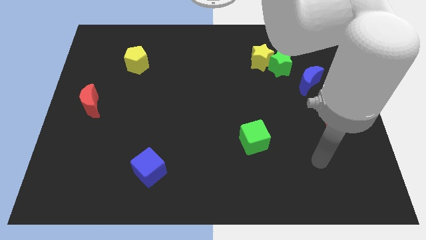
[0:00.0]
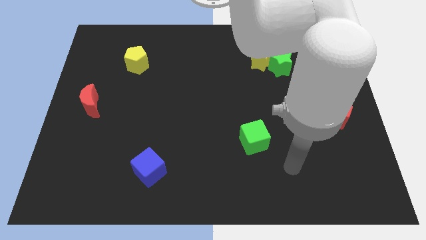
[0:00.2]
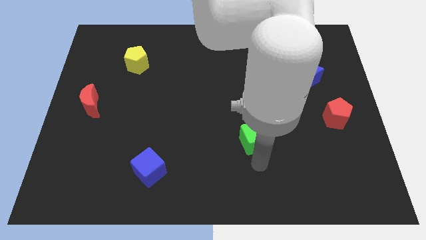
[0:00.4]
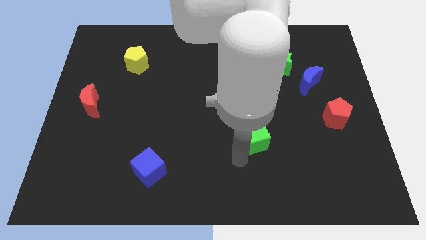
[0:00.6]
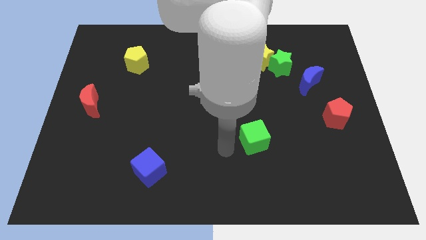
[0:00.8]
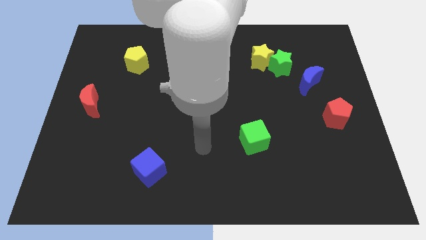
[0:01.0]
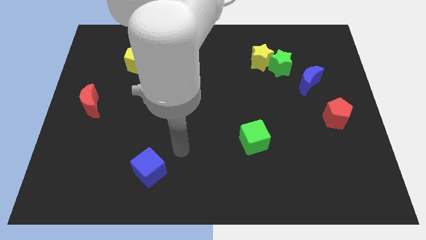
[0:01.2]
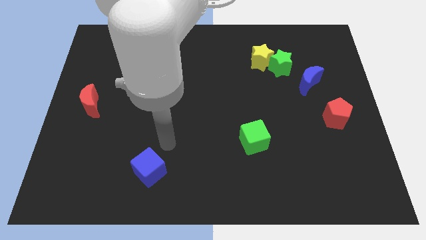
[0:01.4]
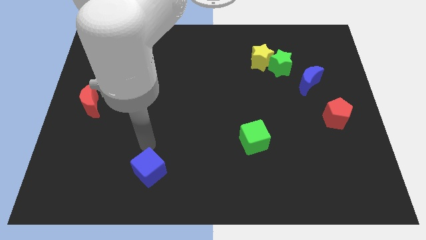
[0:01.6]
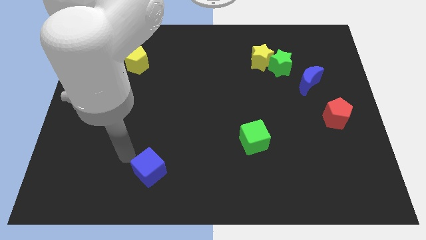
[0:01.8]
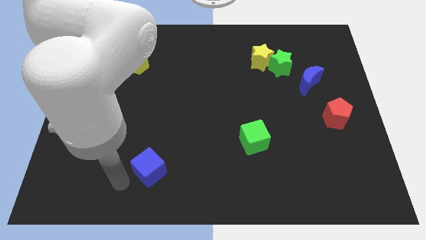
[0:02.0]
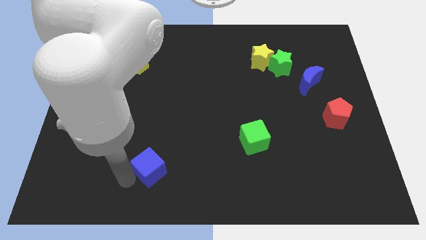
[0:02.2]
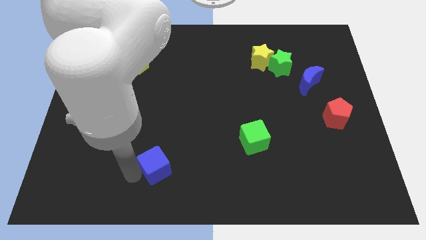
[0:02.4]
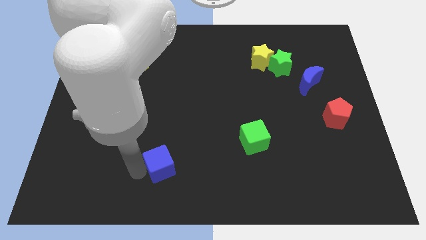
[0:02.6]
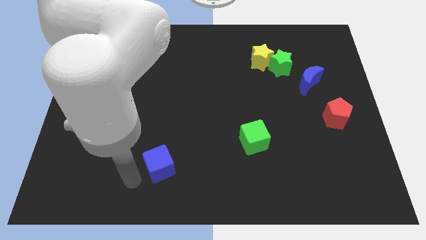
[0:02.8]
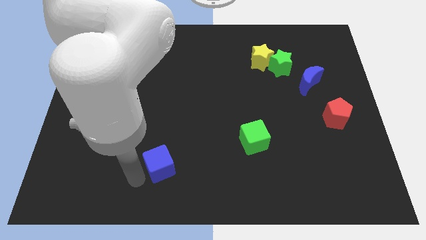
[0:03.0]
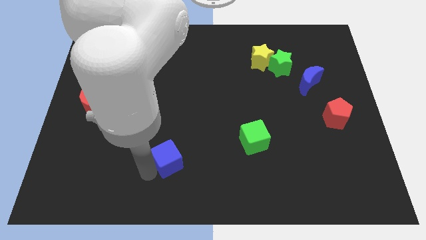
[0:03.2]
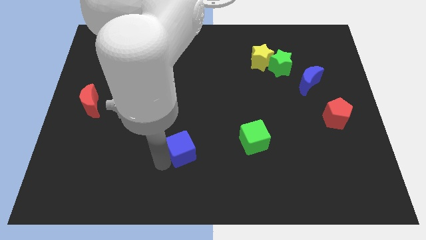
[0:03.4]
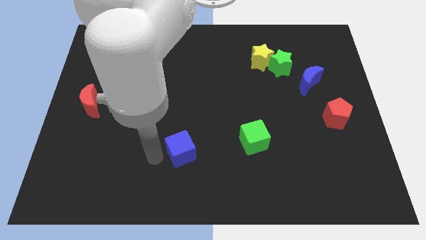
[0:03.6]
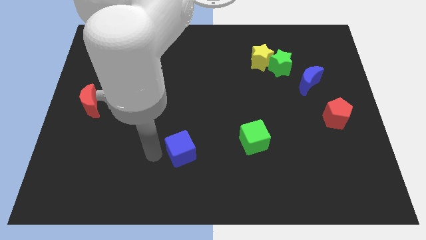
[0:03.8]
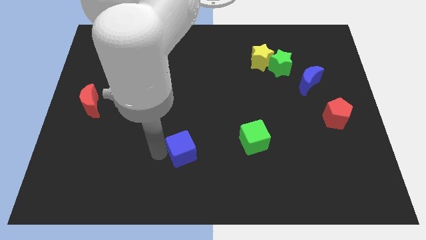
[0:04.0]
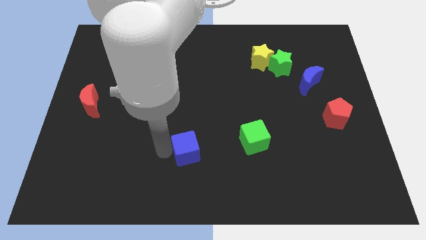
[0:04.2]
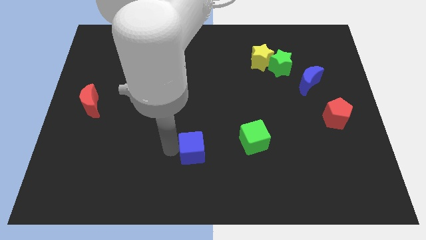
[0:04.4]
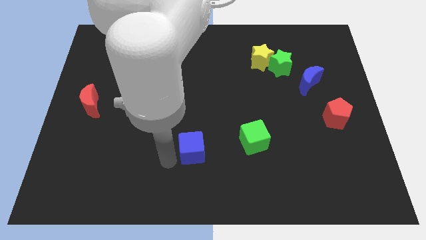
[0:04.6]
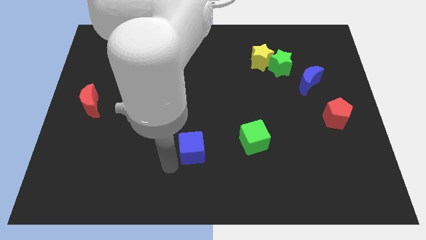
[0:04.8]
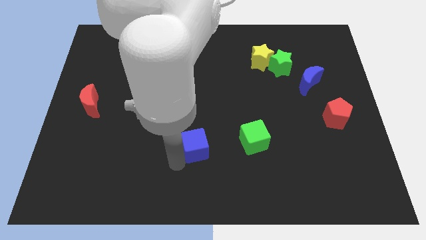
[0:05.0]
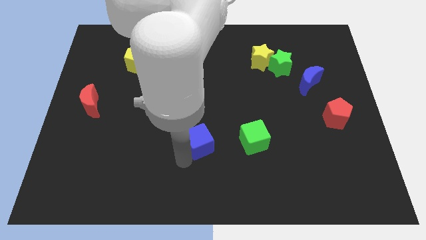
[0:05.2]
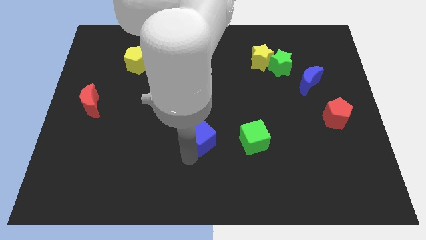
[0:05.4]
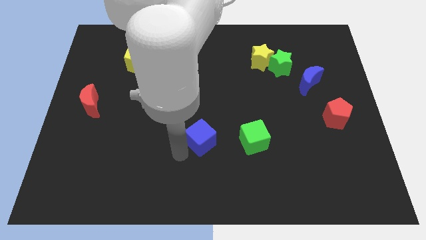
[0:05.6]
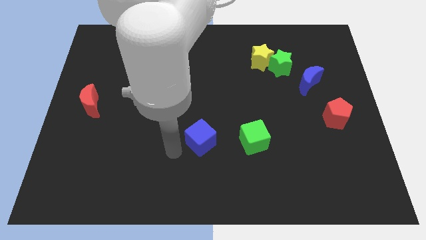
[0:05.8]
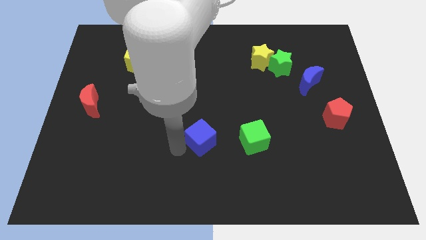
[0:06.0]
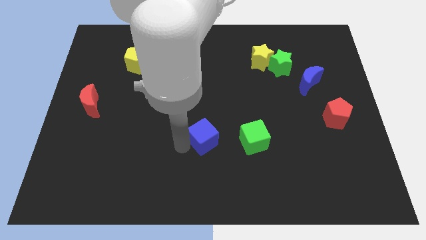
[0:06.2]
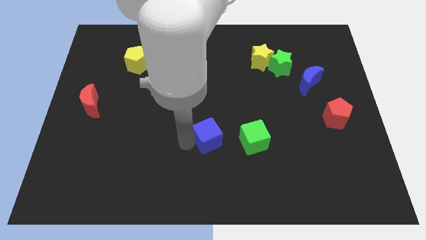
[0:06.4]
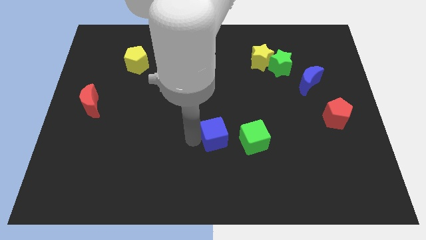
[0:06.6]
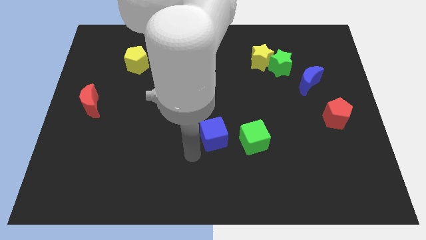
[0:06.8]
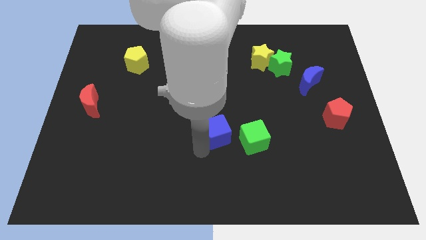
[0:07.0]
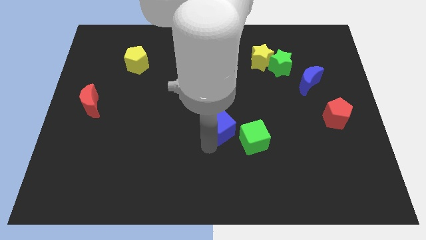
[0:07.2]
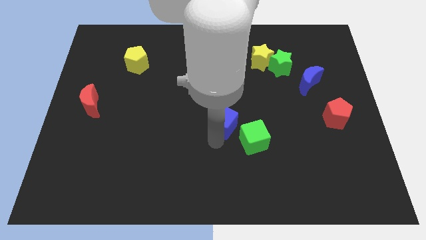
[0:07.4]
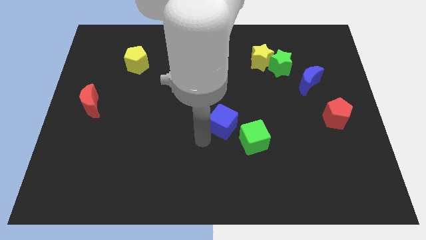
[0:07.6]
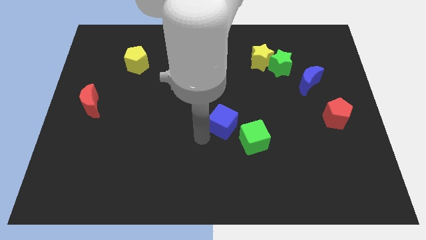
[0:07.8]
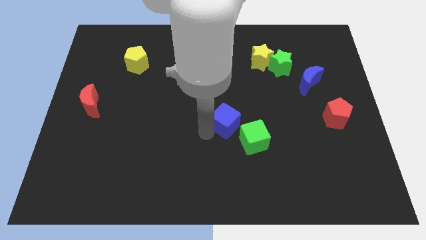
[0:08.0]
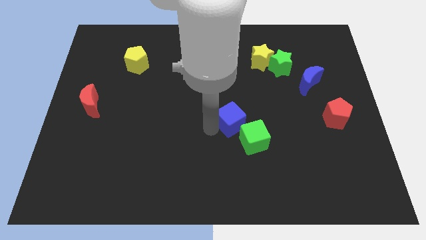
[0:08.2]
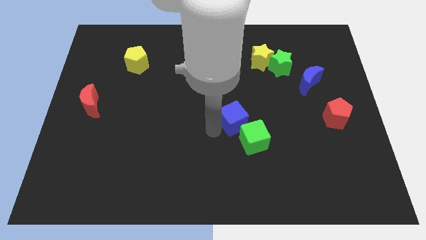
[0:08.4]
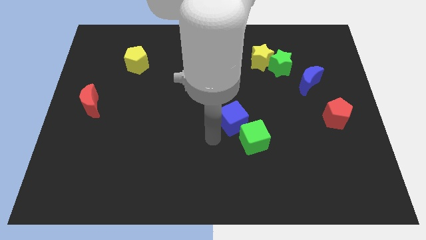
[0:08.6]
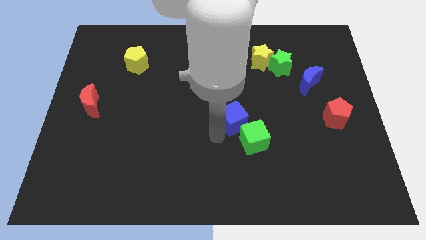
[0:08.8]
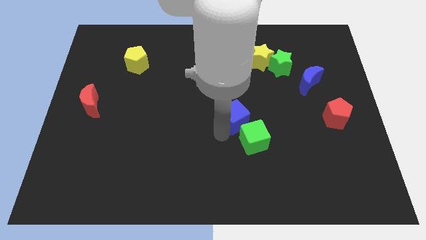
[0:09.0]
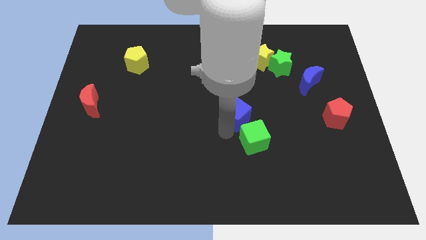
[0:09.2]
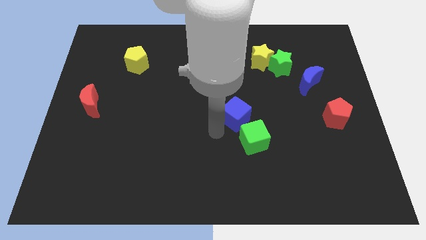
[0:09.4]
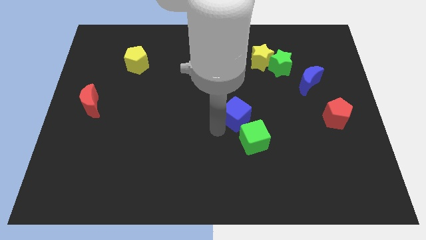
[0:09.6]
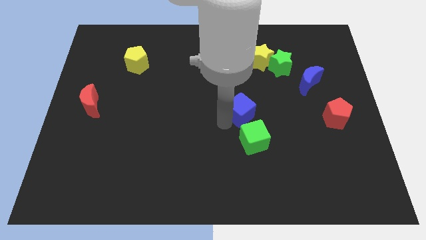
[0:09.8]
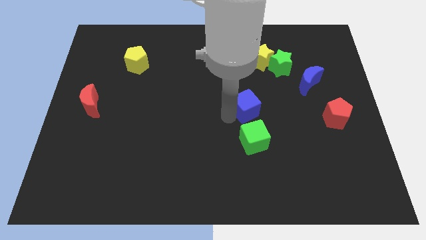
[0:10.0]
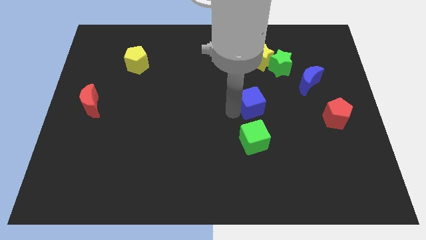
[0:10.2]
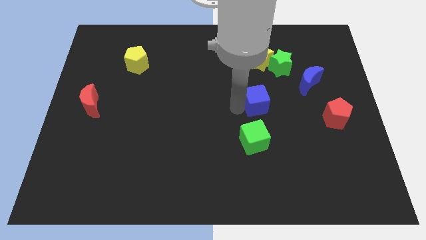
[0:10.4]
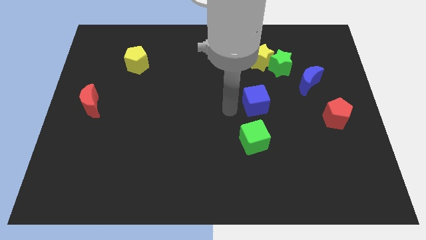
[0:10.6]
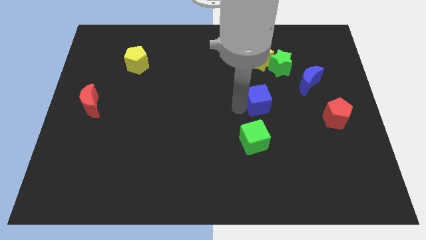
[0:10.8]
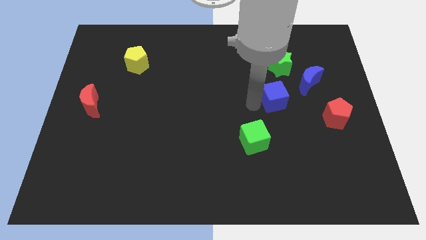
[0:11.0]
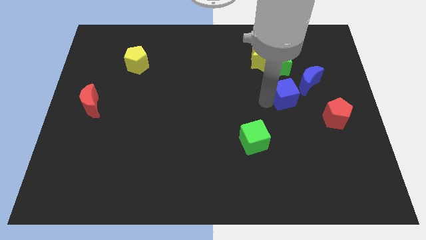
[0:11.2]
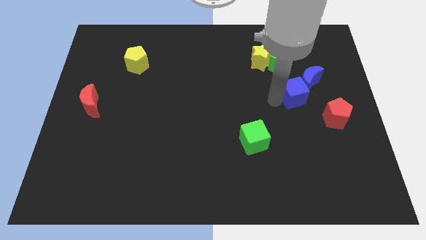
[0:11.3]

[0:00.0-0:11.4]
put the blue cube to the blue moon

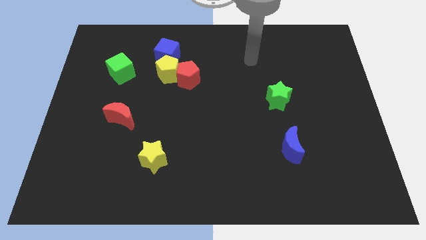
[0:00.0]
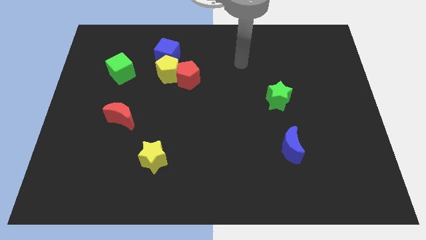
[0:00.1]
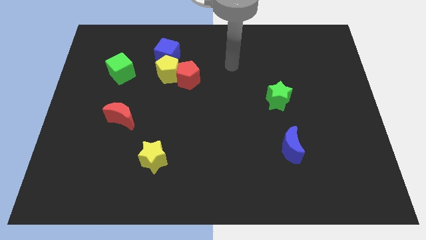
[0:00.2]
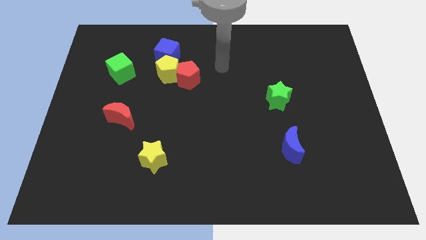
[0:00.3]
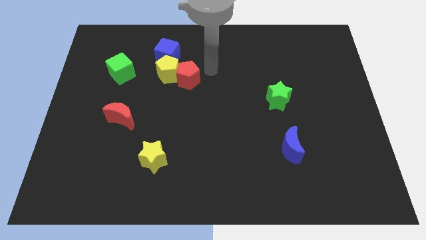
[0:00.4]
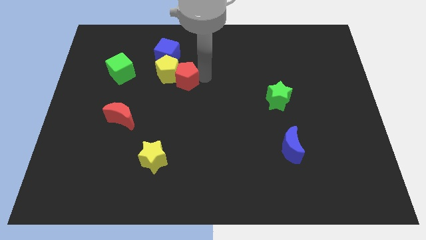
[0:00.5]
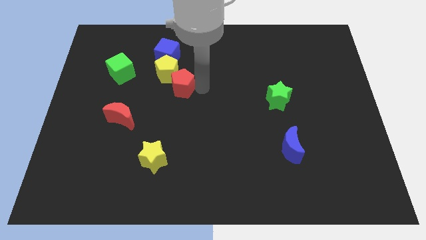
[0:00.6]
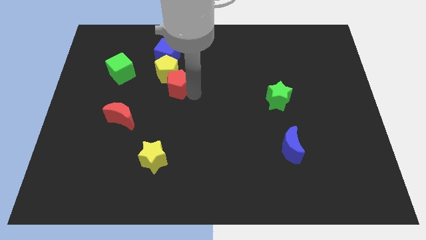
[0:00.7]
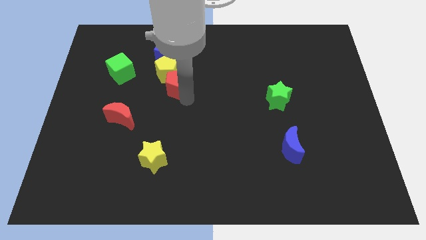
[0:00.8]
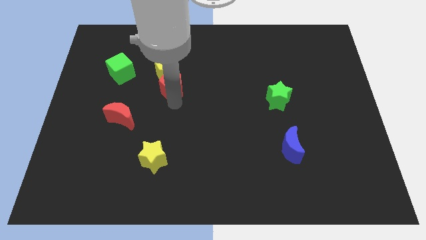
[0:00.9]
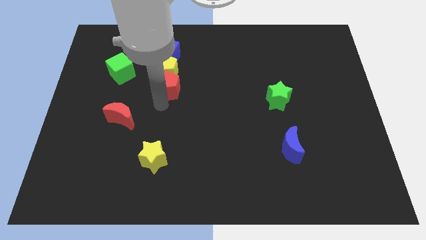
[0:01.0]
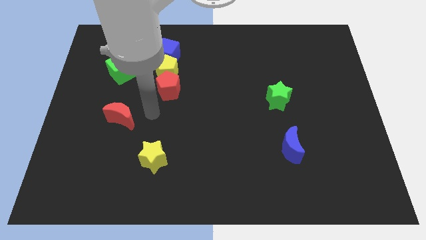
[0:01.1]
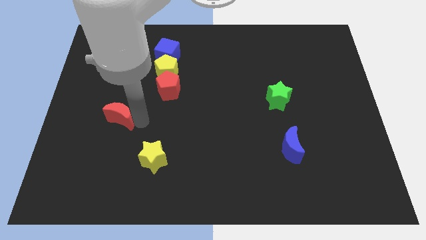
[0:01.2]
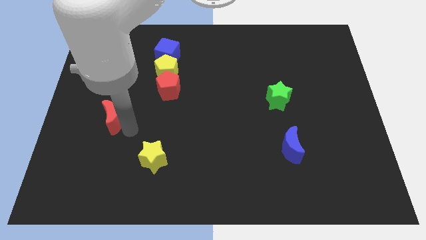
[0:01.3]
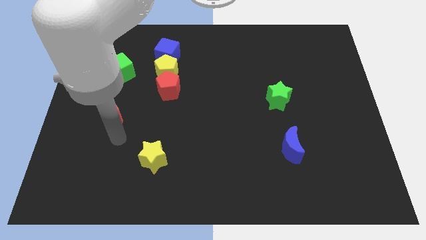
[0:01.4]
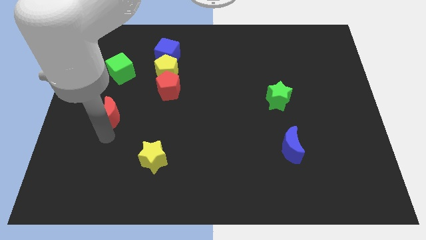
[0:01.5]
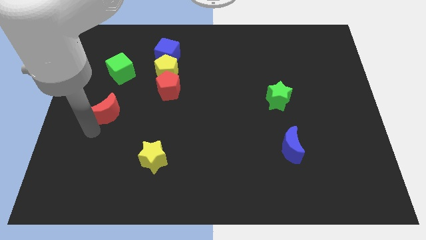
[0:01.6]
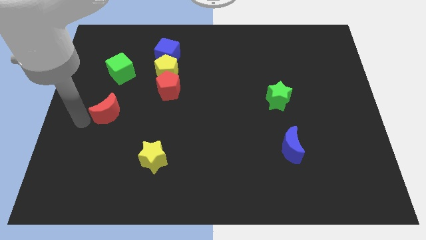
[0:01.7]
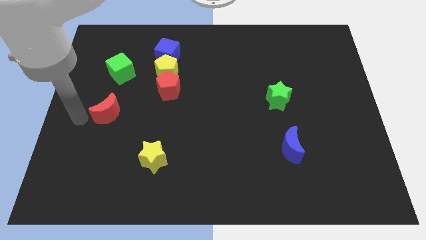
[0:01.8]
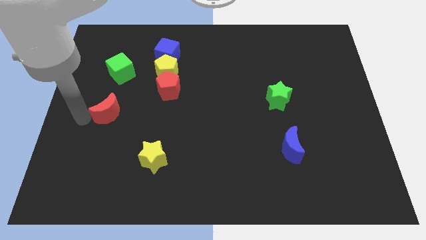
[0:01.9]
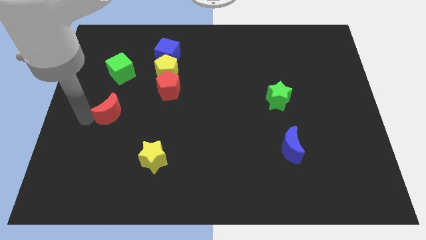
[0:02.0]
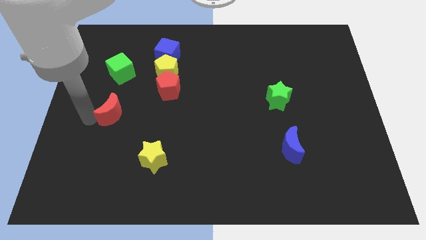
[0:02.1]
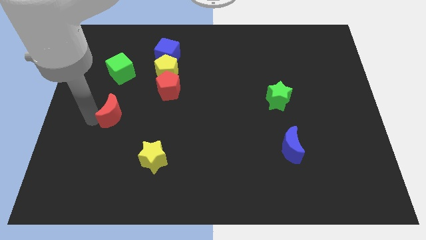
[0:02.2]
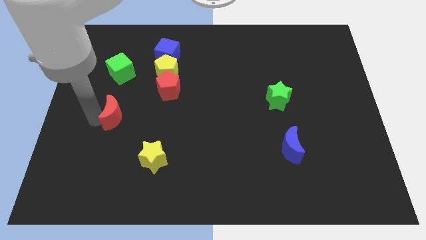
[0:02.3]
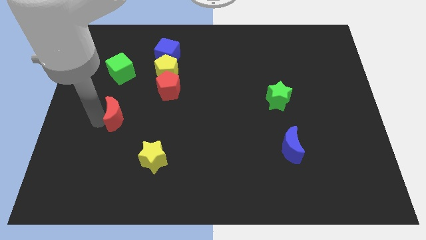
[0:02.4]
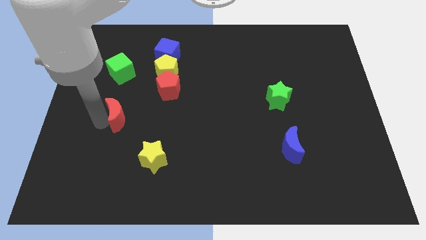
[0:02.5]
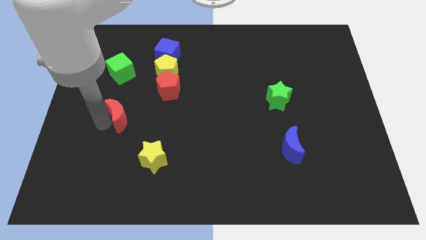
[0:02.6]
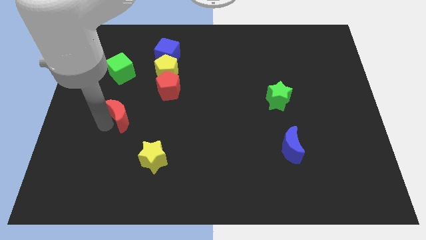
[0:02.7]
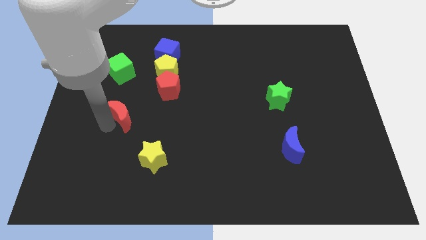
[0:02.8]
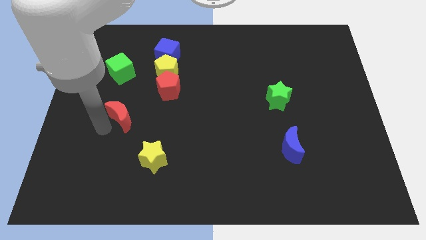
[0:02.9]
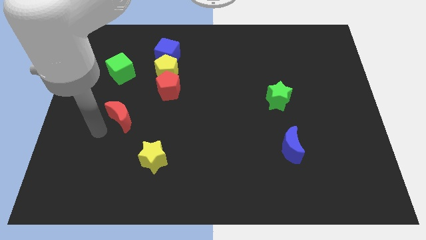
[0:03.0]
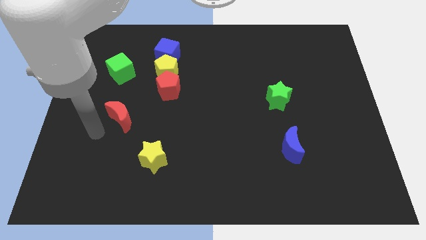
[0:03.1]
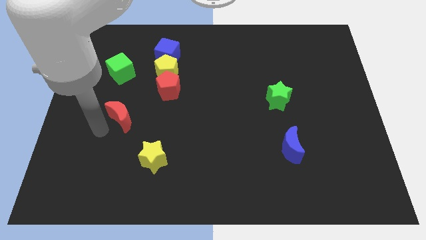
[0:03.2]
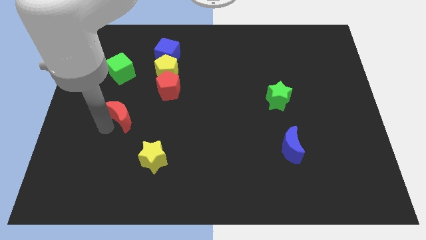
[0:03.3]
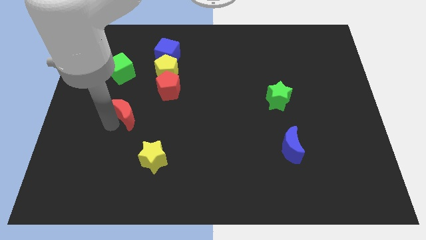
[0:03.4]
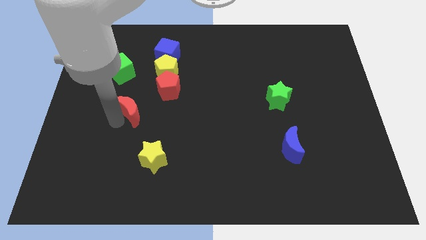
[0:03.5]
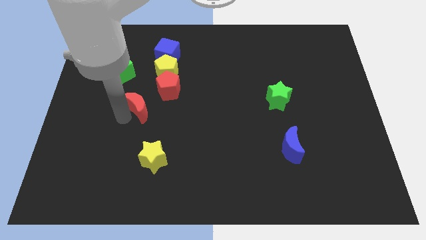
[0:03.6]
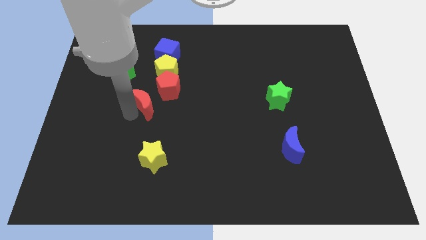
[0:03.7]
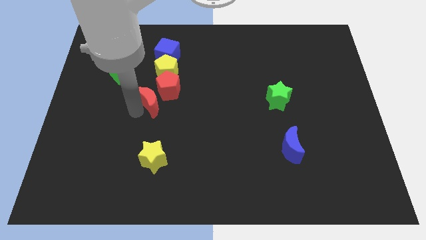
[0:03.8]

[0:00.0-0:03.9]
move the red moon next to the red pentagon
